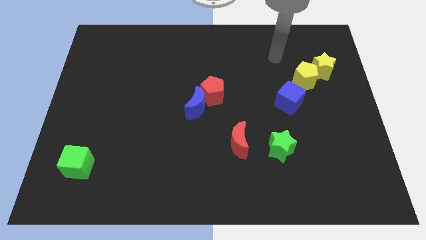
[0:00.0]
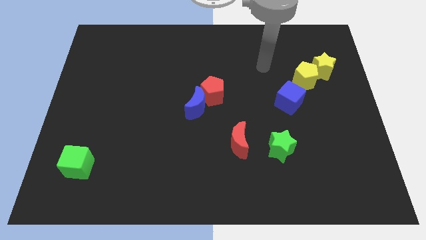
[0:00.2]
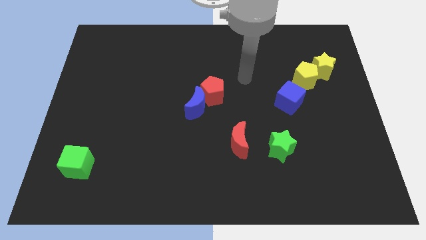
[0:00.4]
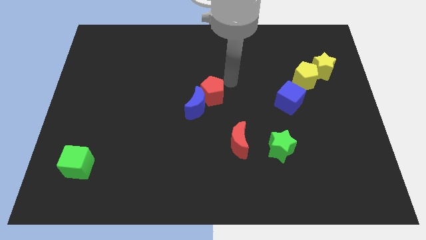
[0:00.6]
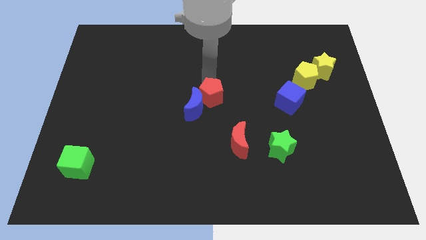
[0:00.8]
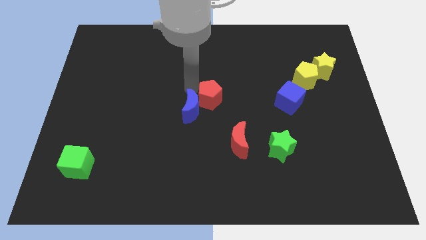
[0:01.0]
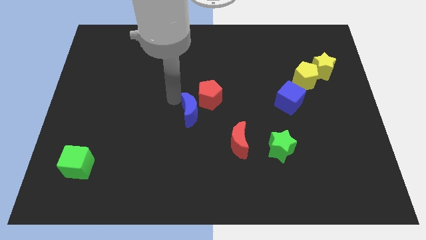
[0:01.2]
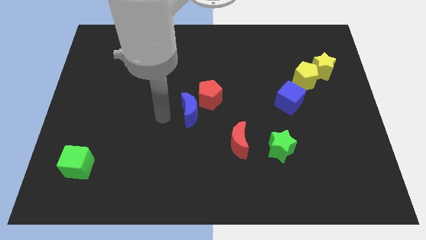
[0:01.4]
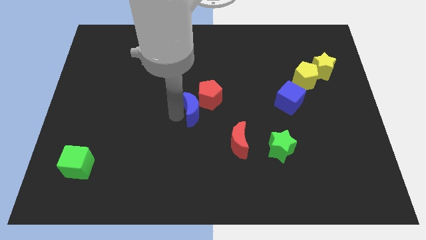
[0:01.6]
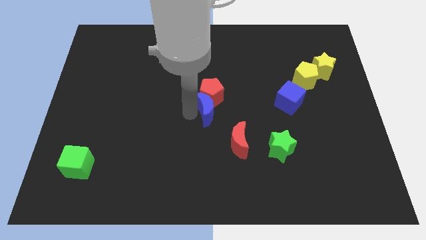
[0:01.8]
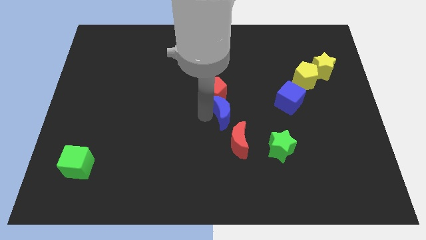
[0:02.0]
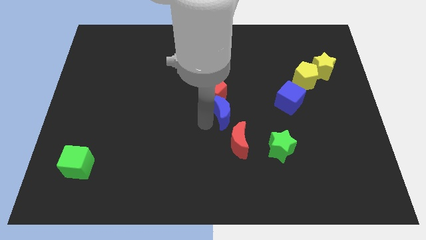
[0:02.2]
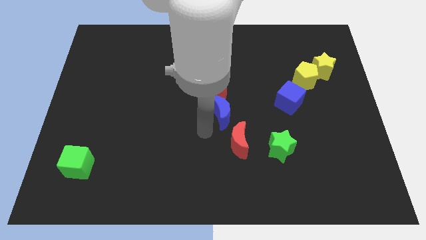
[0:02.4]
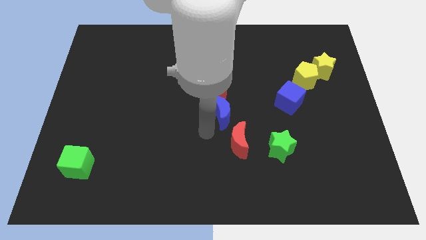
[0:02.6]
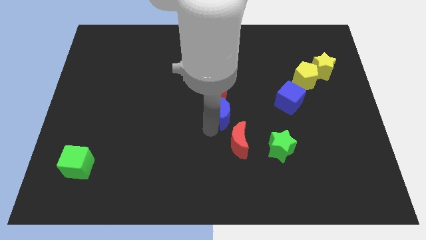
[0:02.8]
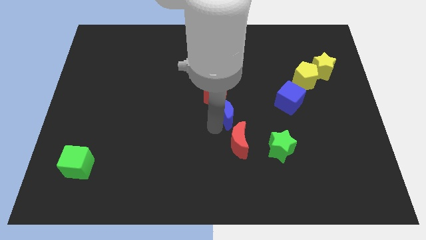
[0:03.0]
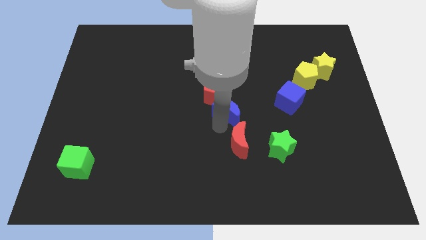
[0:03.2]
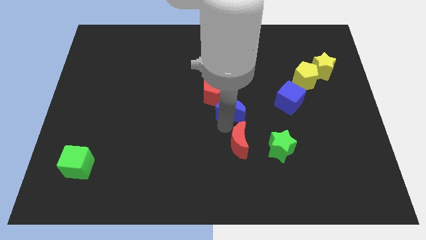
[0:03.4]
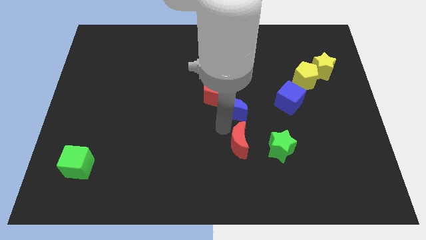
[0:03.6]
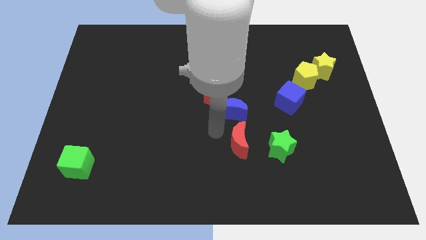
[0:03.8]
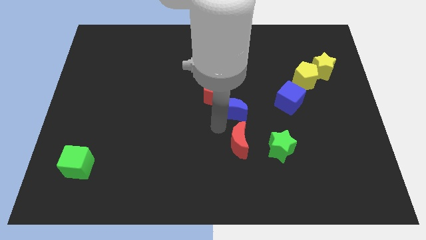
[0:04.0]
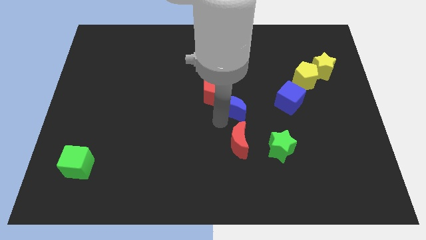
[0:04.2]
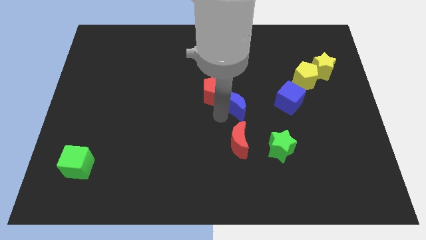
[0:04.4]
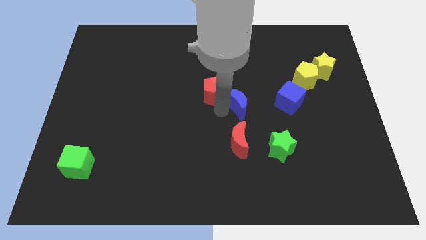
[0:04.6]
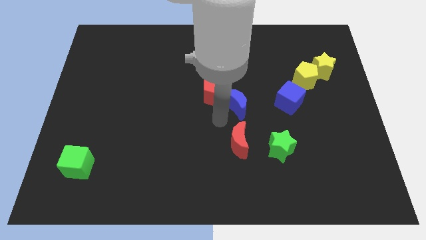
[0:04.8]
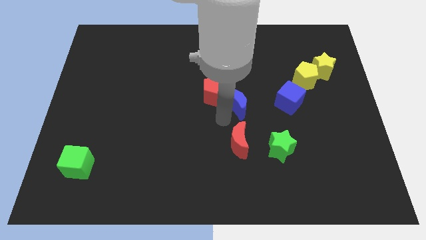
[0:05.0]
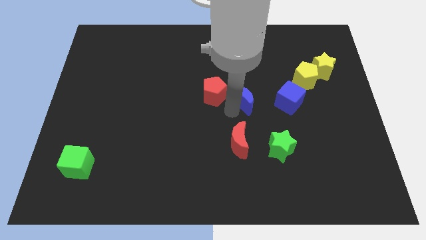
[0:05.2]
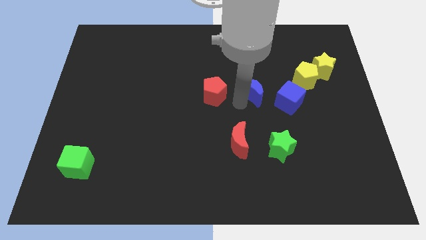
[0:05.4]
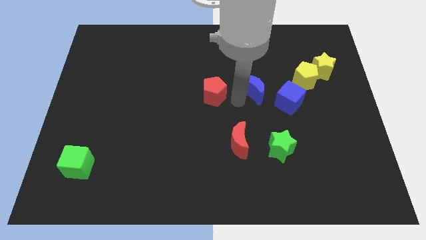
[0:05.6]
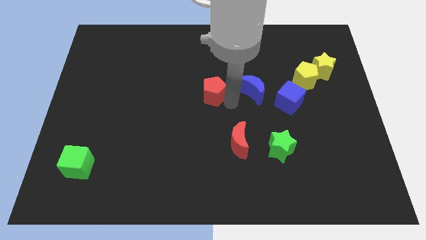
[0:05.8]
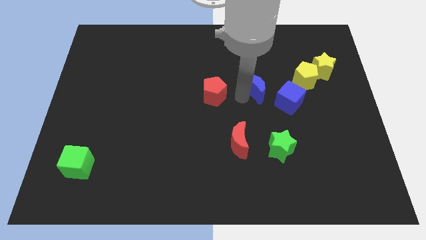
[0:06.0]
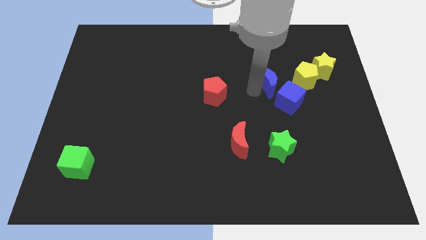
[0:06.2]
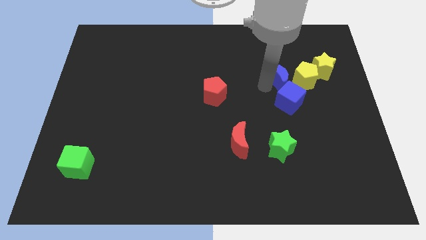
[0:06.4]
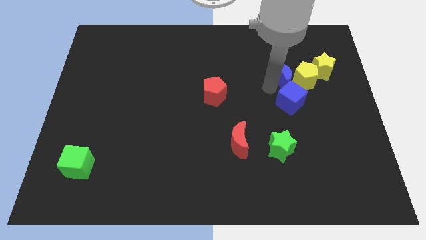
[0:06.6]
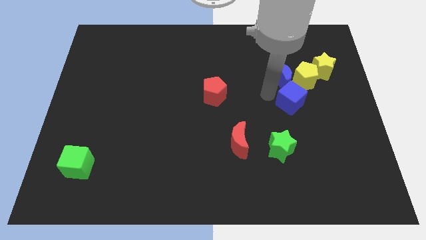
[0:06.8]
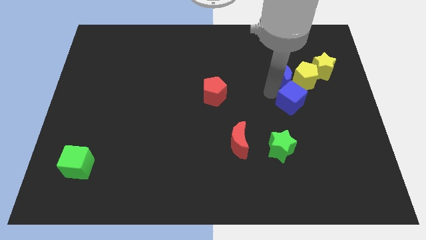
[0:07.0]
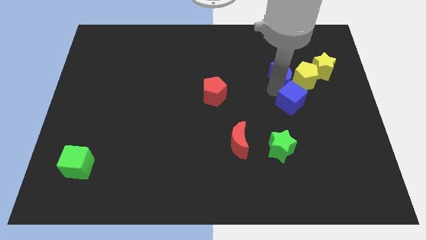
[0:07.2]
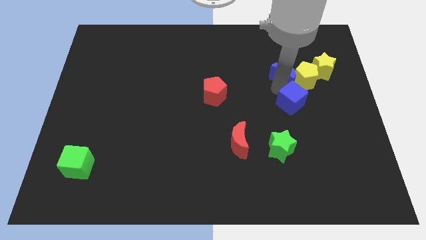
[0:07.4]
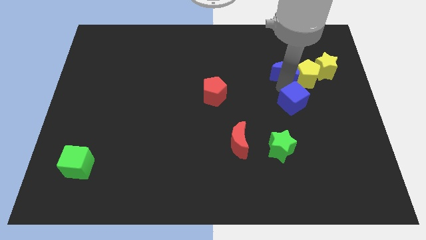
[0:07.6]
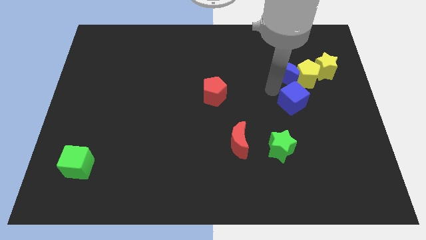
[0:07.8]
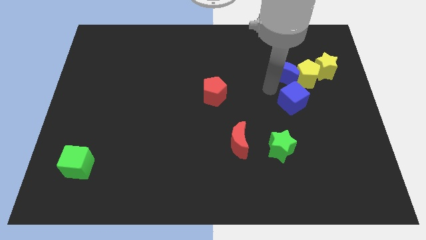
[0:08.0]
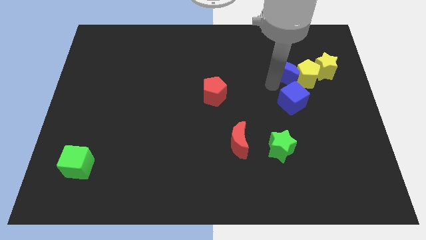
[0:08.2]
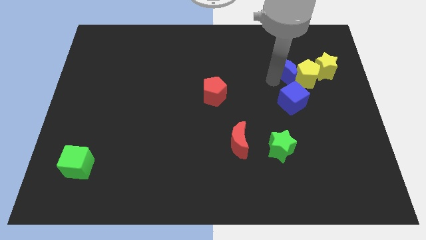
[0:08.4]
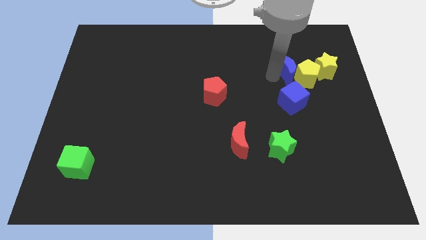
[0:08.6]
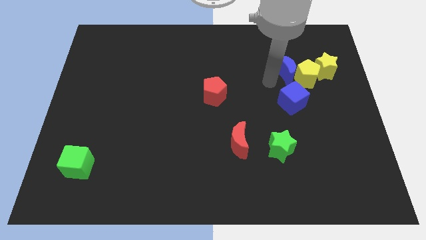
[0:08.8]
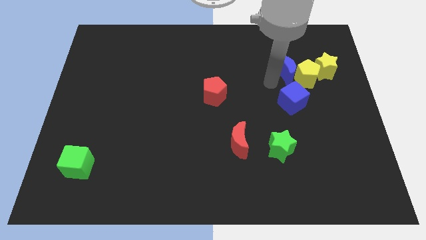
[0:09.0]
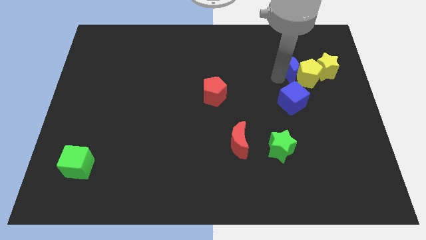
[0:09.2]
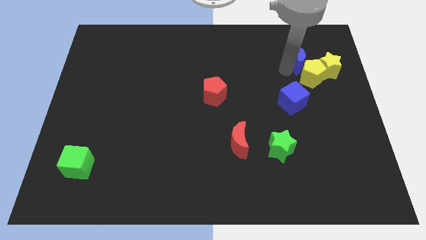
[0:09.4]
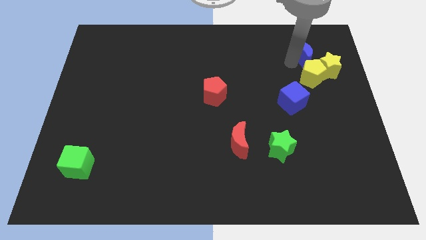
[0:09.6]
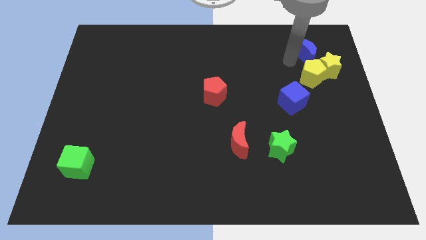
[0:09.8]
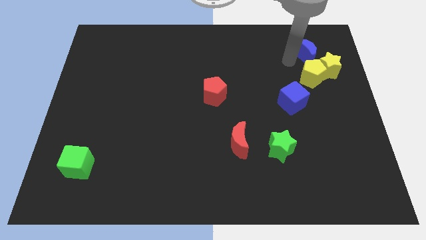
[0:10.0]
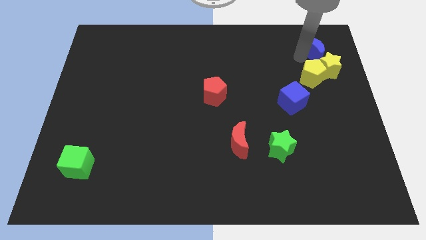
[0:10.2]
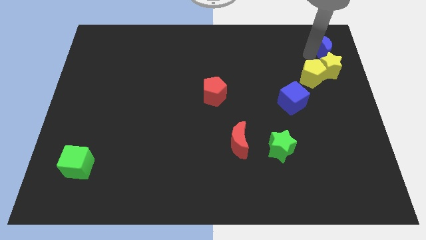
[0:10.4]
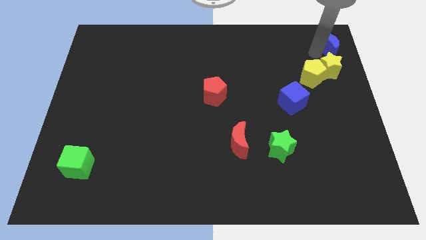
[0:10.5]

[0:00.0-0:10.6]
push the blue moon to the top right of the board

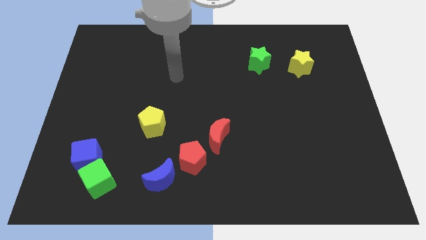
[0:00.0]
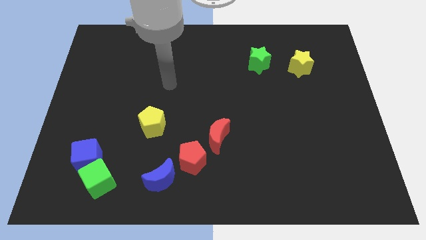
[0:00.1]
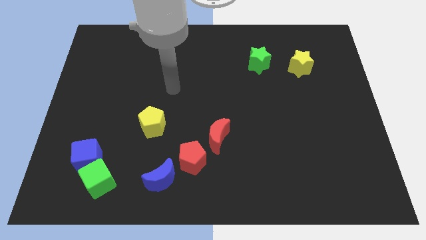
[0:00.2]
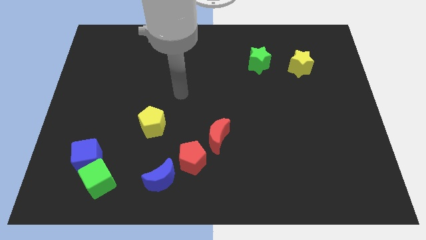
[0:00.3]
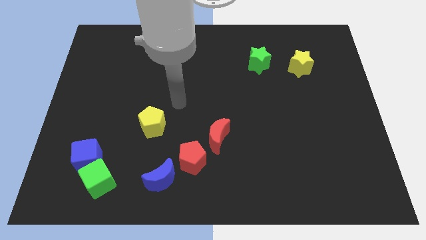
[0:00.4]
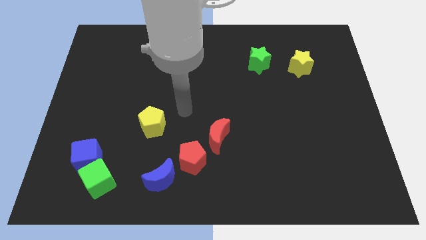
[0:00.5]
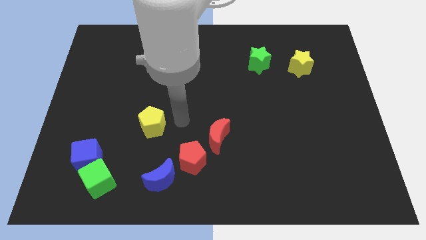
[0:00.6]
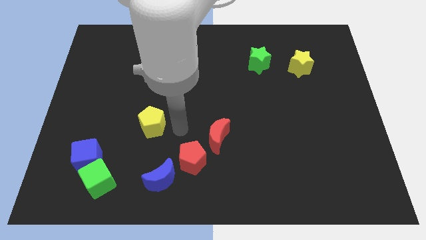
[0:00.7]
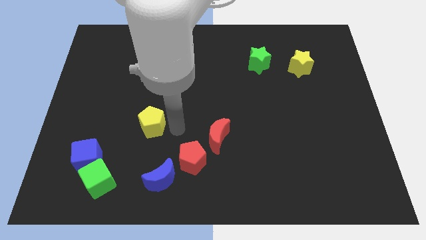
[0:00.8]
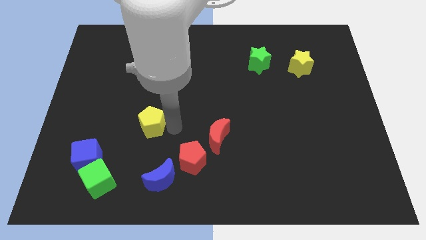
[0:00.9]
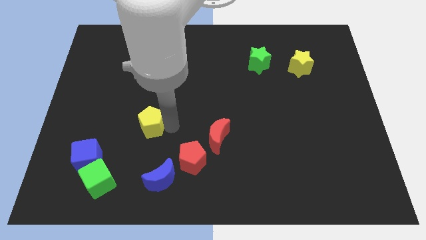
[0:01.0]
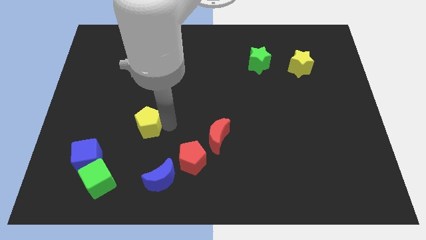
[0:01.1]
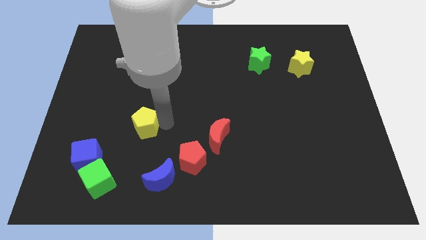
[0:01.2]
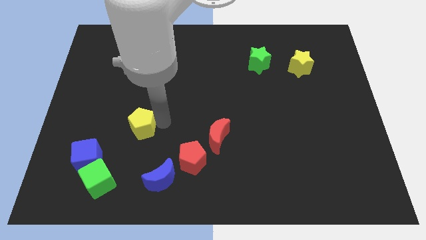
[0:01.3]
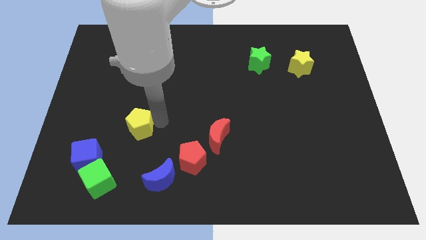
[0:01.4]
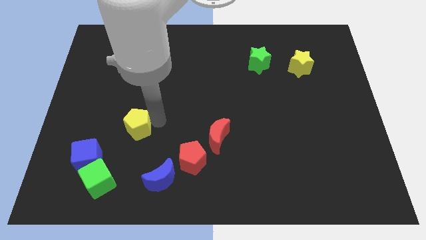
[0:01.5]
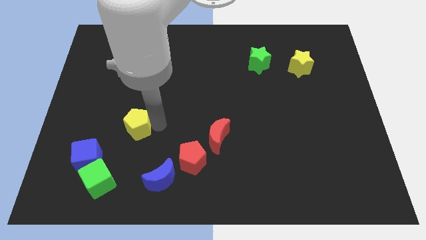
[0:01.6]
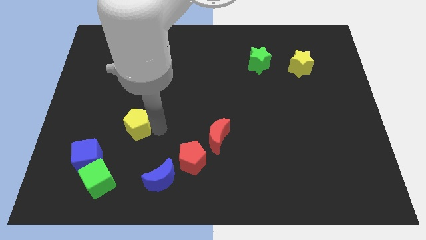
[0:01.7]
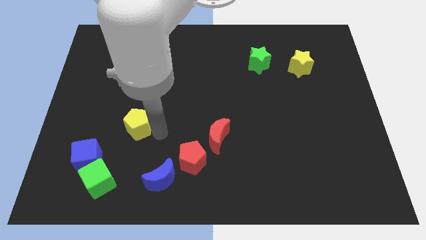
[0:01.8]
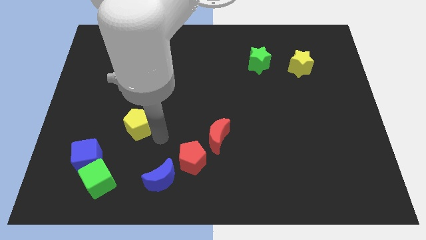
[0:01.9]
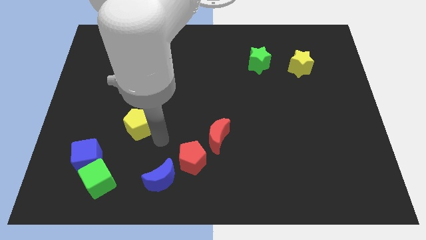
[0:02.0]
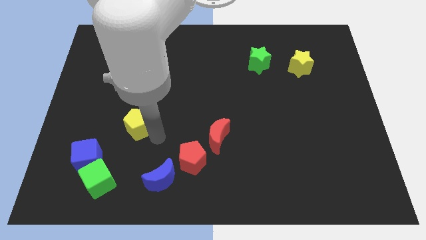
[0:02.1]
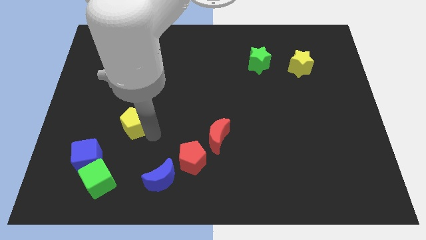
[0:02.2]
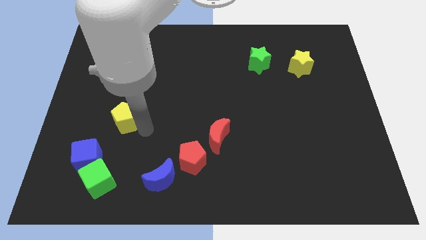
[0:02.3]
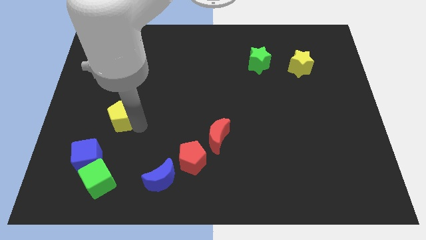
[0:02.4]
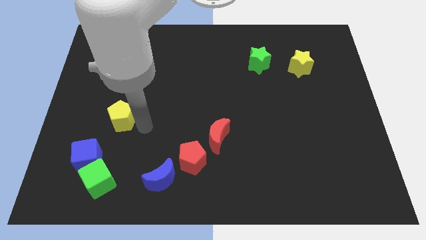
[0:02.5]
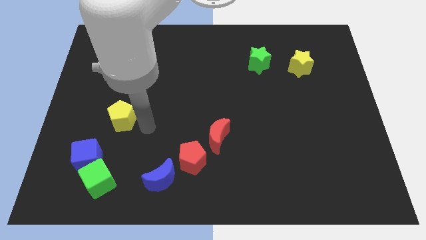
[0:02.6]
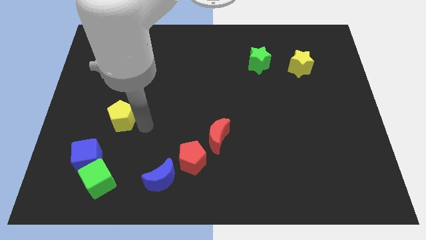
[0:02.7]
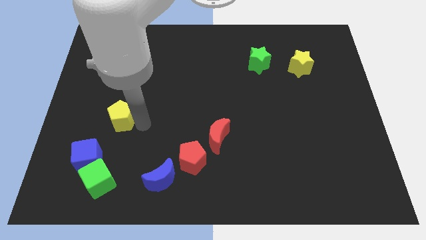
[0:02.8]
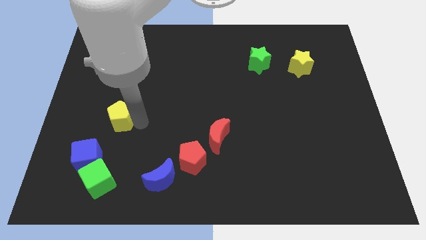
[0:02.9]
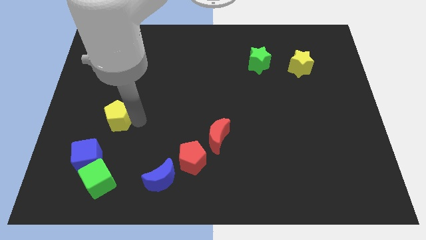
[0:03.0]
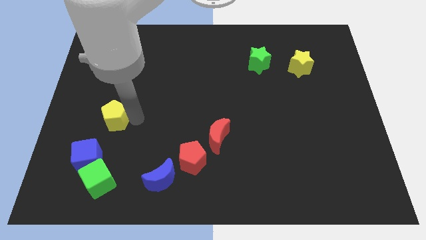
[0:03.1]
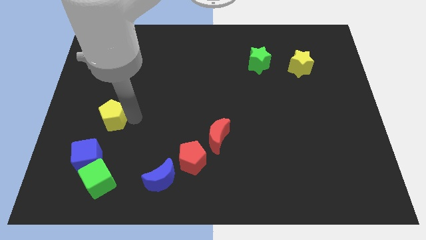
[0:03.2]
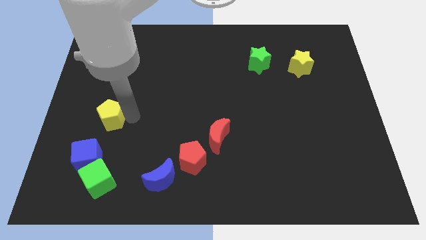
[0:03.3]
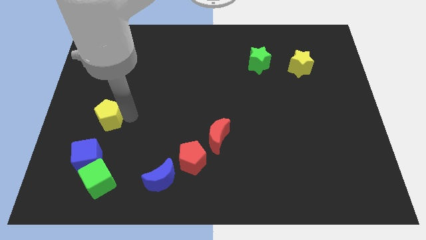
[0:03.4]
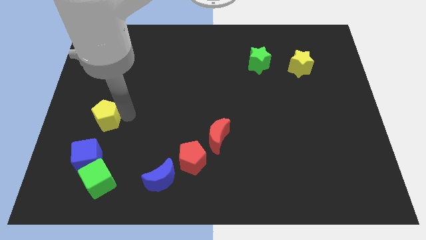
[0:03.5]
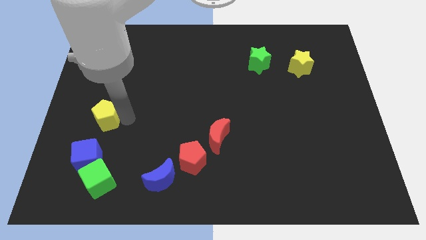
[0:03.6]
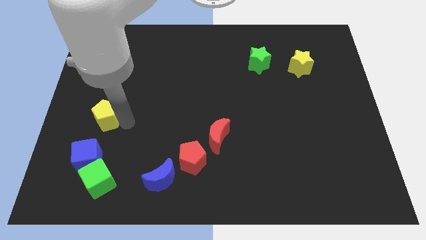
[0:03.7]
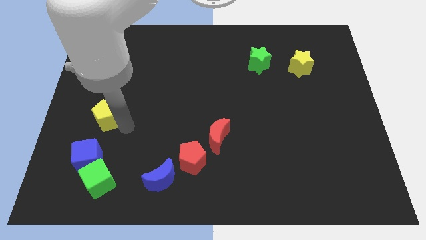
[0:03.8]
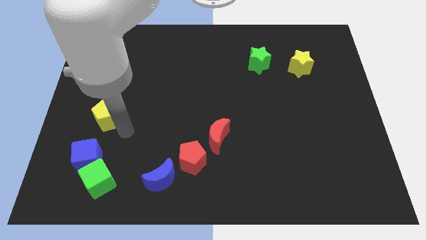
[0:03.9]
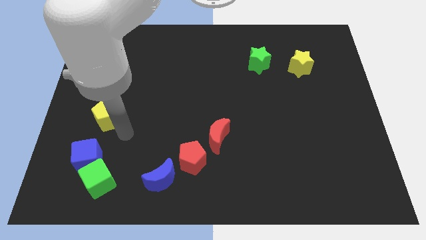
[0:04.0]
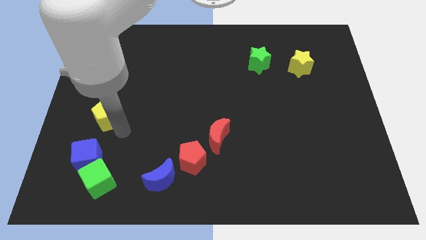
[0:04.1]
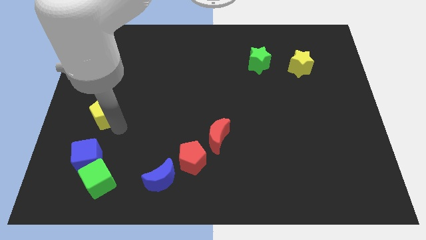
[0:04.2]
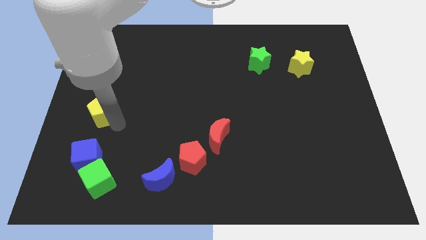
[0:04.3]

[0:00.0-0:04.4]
move the yellow pentagon to the center left
